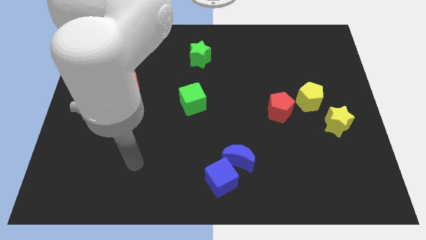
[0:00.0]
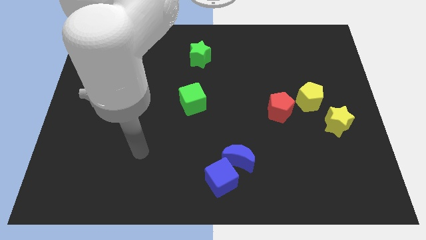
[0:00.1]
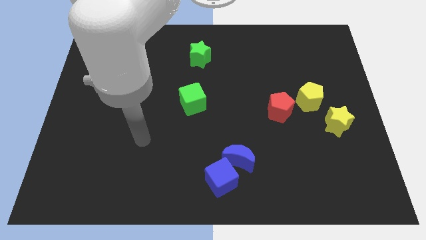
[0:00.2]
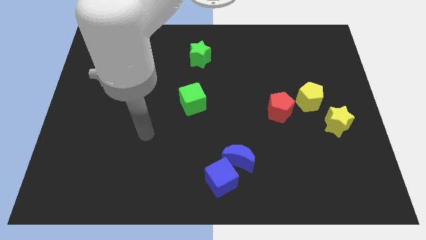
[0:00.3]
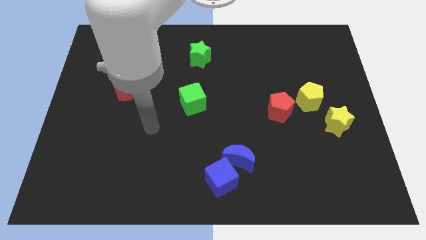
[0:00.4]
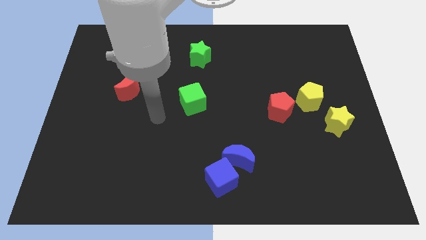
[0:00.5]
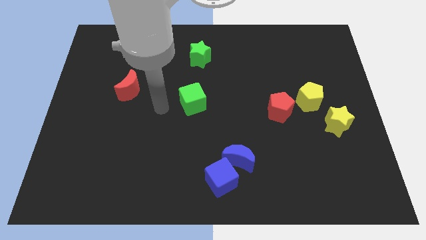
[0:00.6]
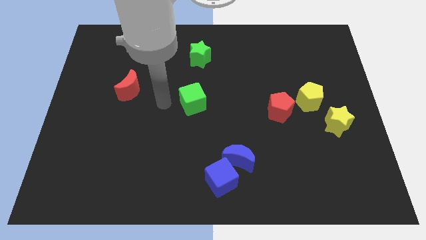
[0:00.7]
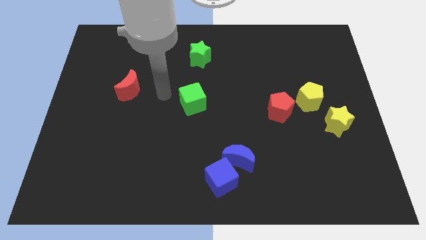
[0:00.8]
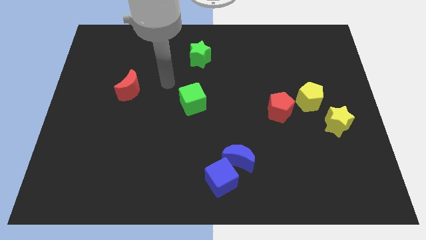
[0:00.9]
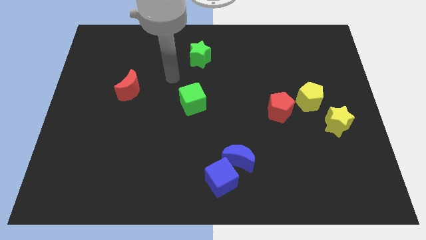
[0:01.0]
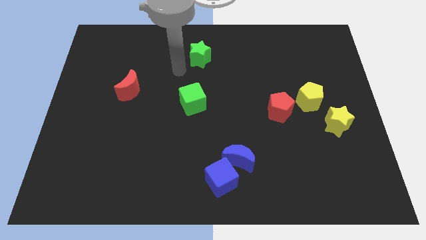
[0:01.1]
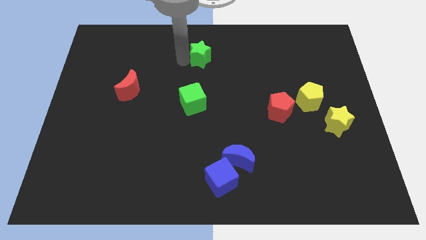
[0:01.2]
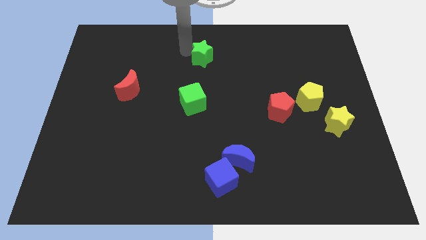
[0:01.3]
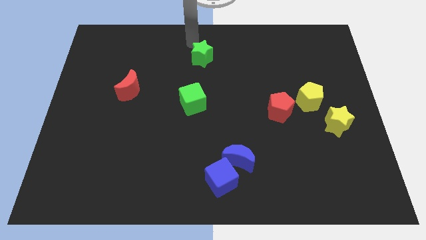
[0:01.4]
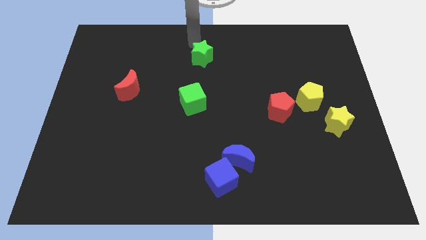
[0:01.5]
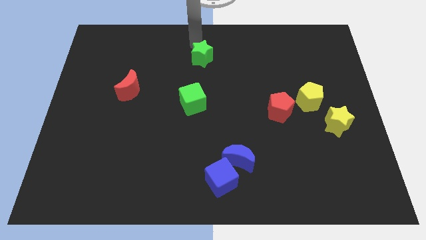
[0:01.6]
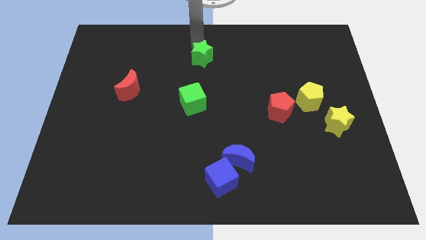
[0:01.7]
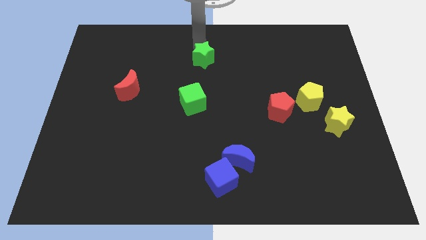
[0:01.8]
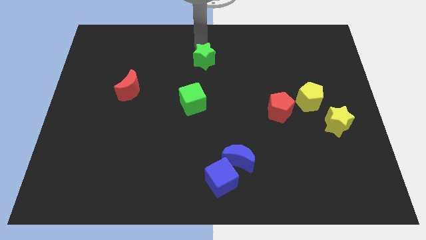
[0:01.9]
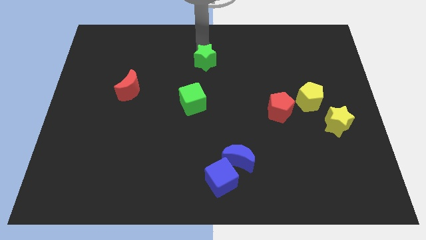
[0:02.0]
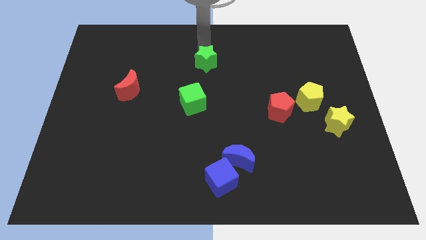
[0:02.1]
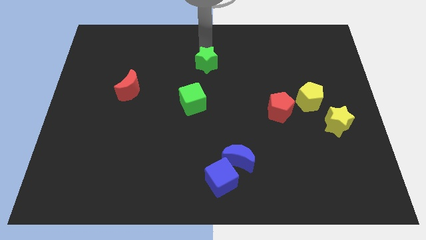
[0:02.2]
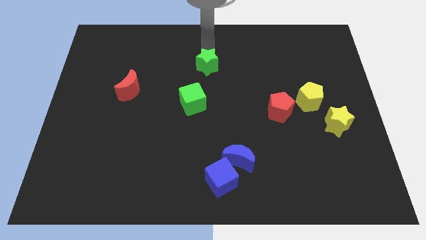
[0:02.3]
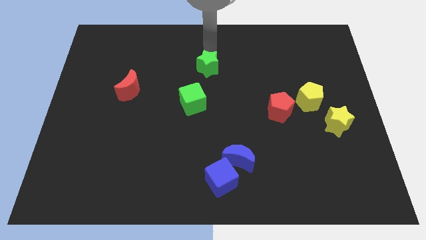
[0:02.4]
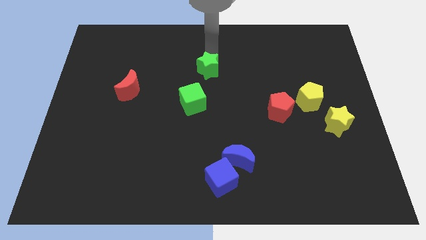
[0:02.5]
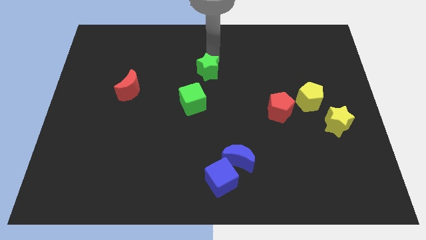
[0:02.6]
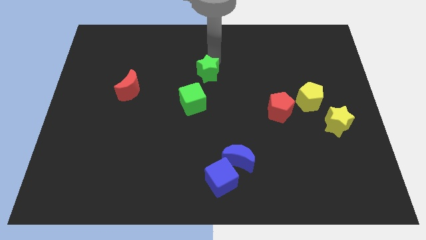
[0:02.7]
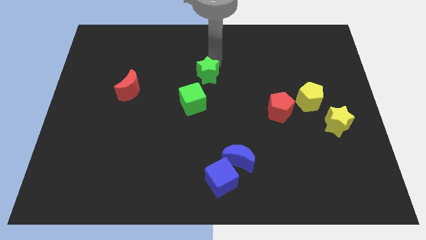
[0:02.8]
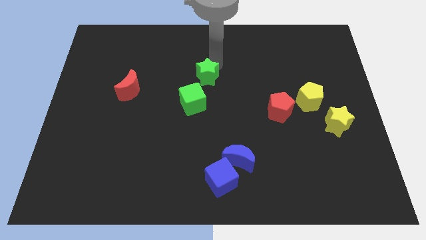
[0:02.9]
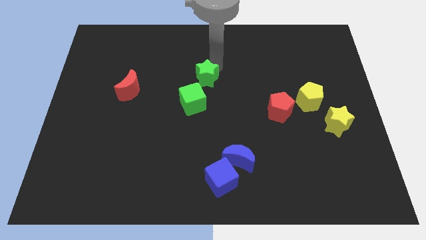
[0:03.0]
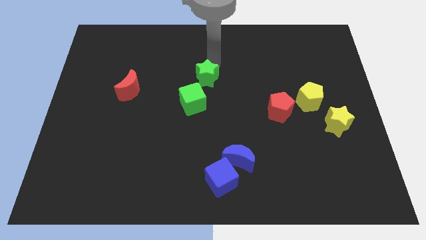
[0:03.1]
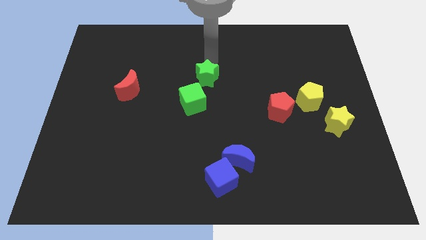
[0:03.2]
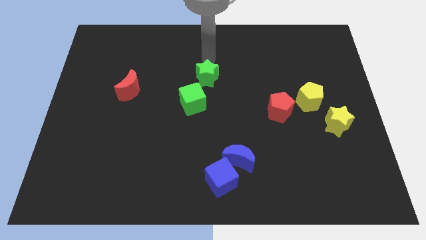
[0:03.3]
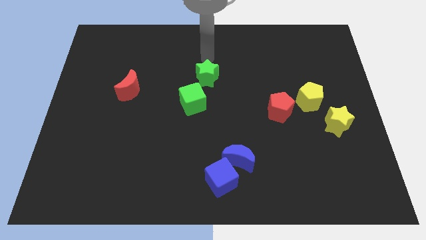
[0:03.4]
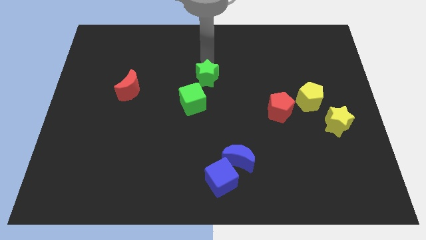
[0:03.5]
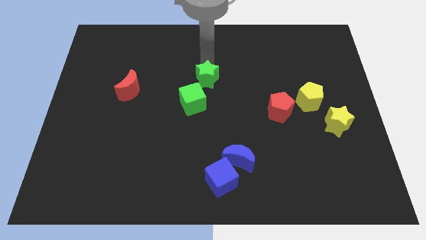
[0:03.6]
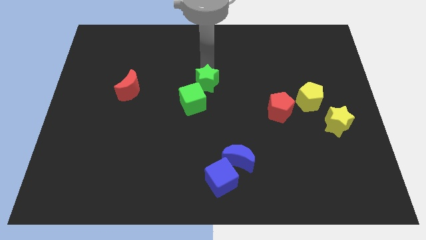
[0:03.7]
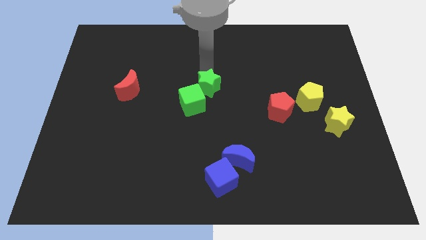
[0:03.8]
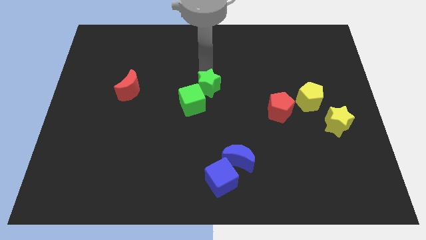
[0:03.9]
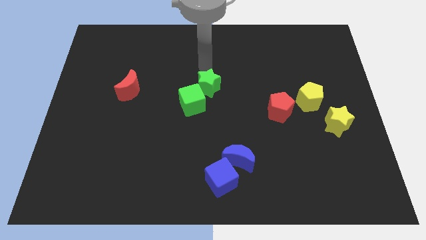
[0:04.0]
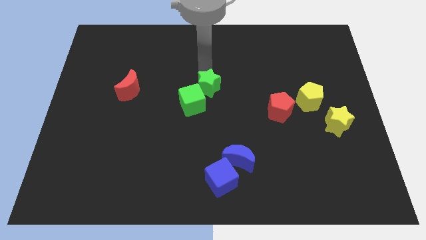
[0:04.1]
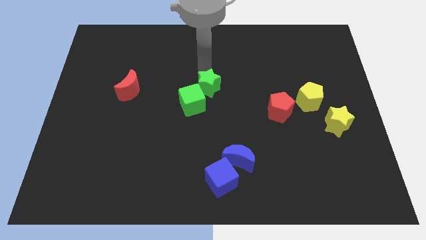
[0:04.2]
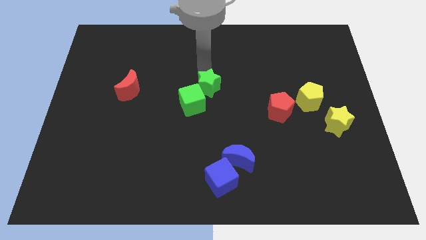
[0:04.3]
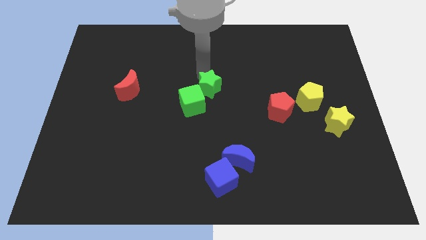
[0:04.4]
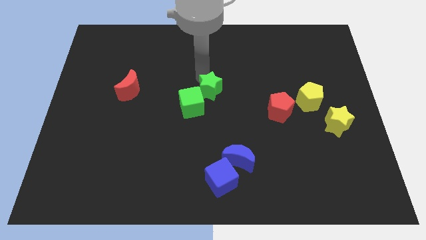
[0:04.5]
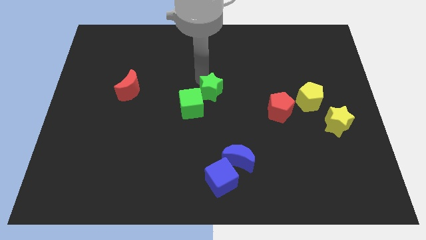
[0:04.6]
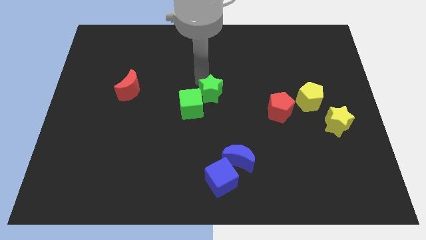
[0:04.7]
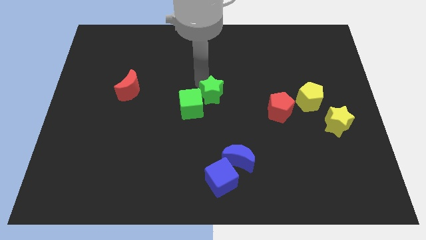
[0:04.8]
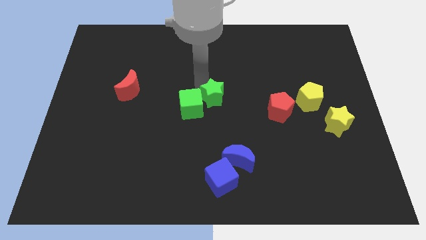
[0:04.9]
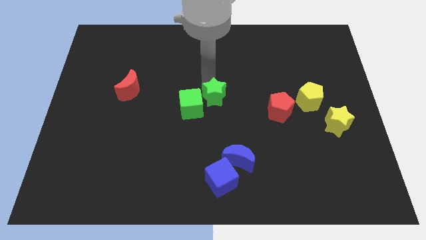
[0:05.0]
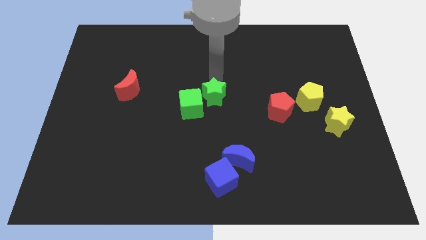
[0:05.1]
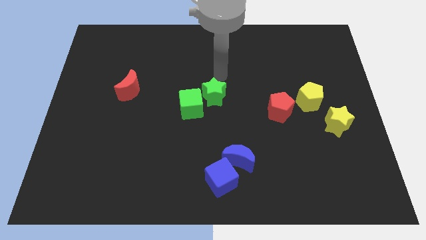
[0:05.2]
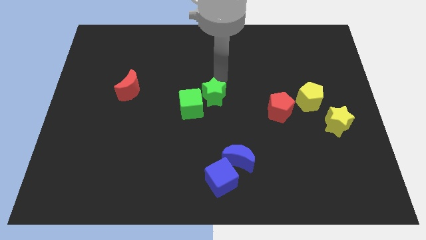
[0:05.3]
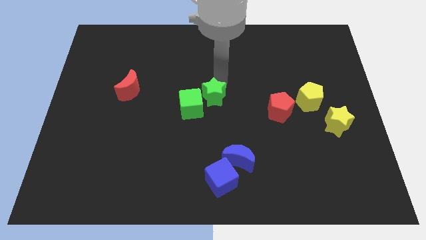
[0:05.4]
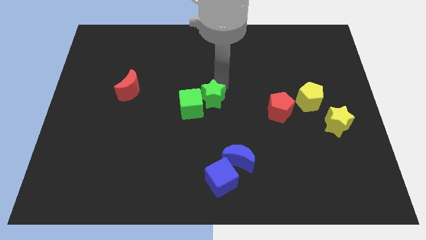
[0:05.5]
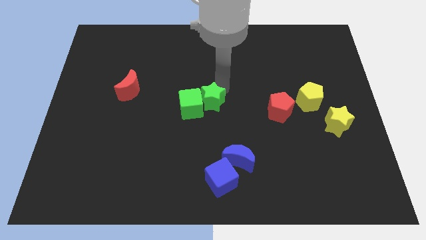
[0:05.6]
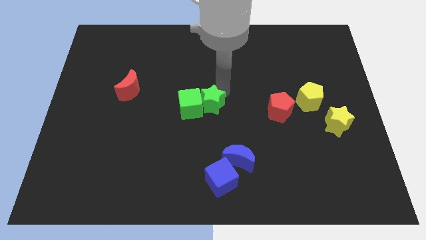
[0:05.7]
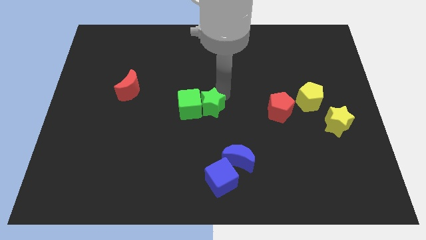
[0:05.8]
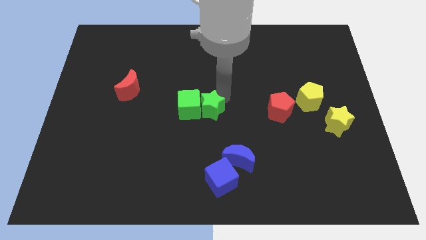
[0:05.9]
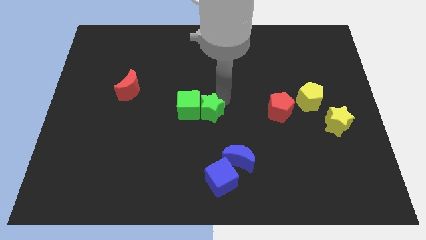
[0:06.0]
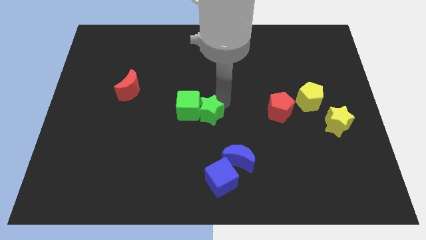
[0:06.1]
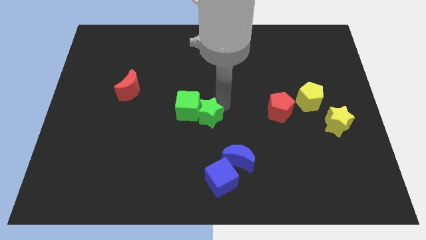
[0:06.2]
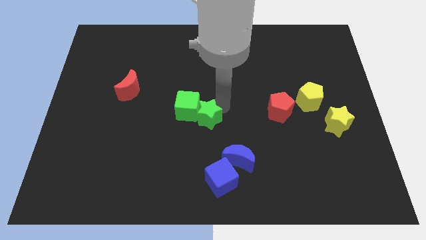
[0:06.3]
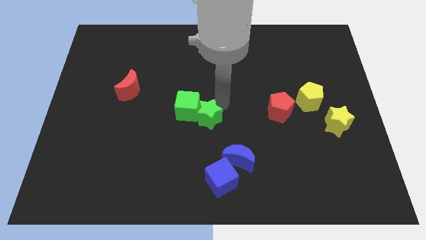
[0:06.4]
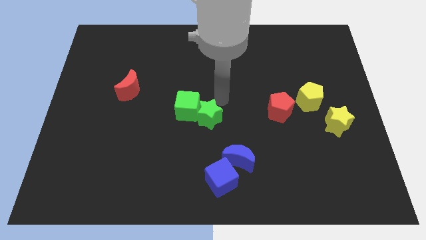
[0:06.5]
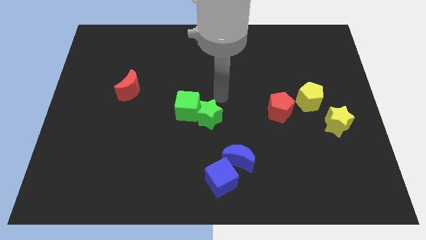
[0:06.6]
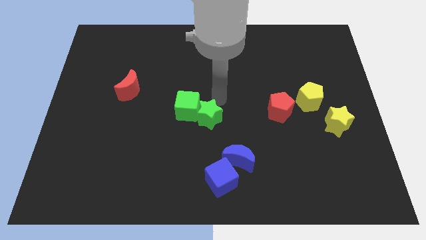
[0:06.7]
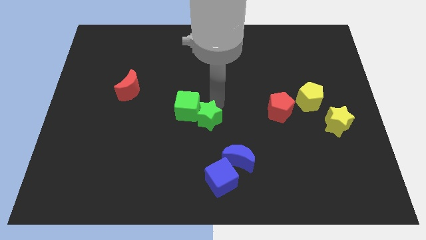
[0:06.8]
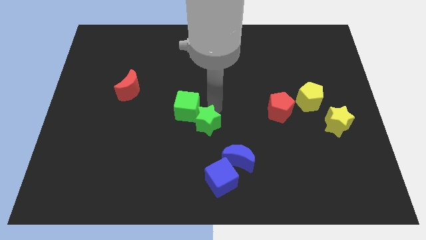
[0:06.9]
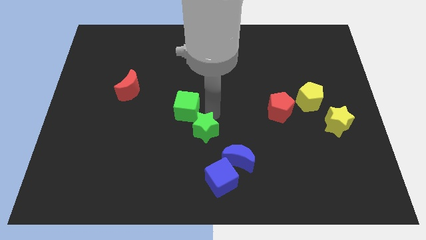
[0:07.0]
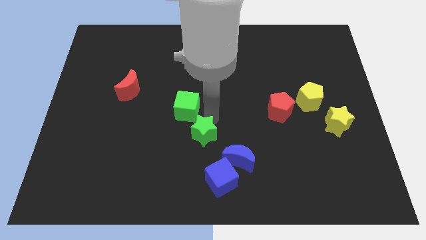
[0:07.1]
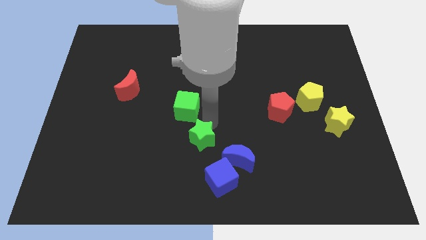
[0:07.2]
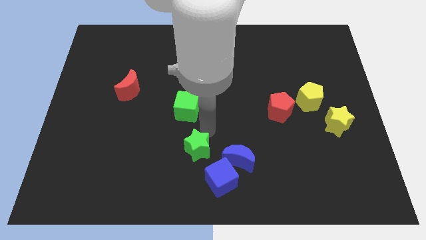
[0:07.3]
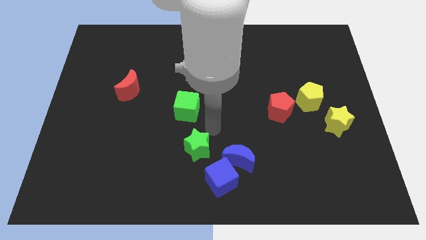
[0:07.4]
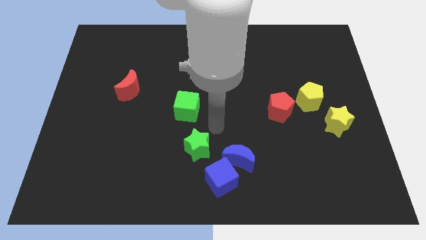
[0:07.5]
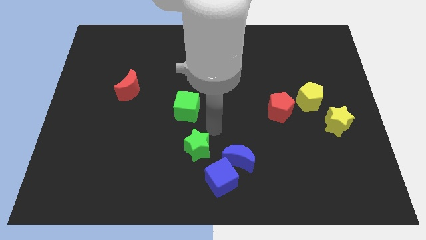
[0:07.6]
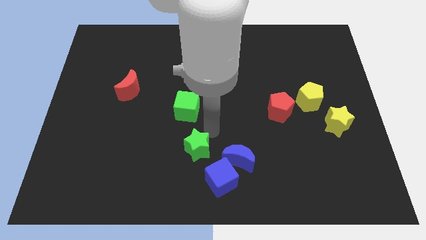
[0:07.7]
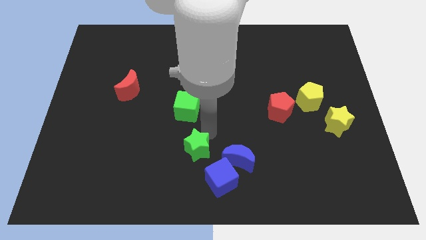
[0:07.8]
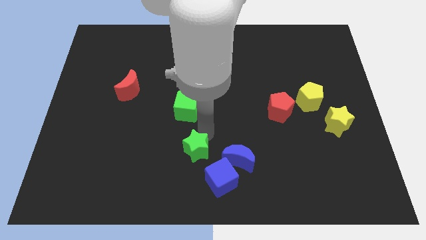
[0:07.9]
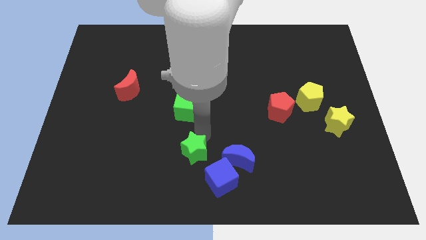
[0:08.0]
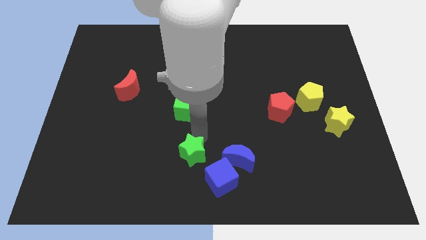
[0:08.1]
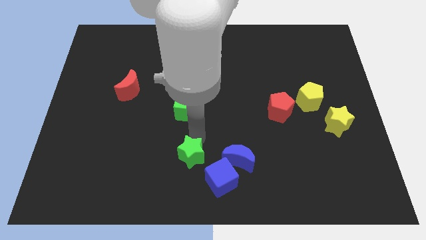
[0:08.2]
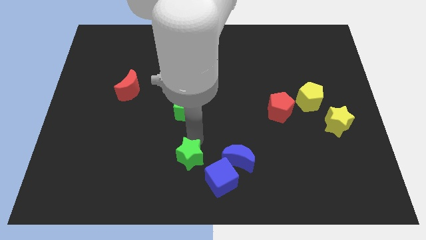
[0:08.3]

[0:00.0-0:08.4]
move the green star to the bottom side
